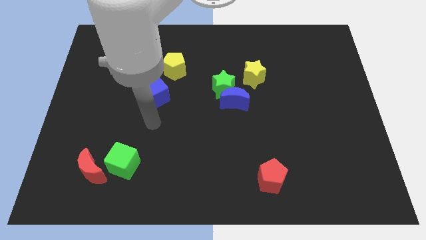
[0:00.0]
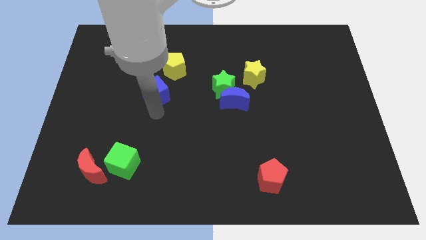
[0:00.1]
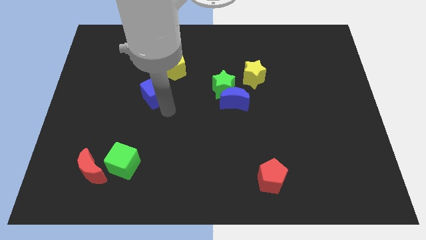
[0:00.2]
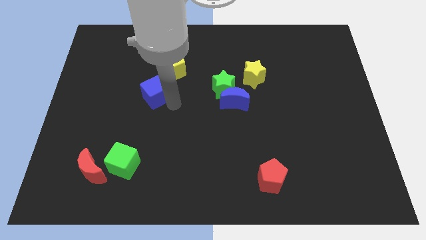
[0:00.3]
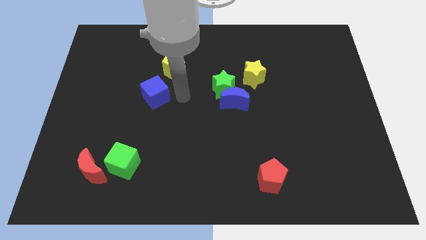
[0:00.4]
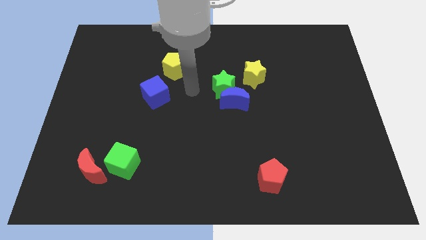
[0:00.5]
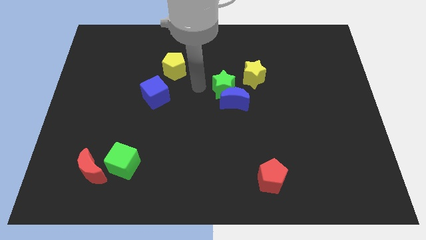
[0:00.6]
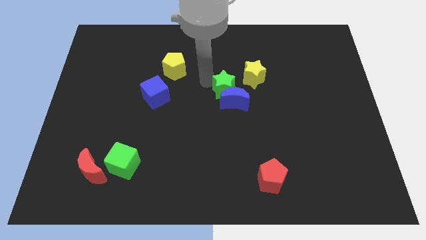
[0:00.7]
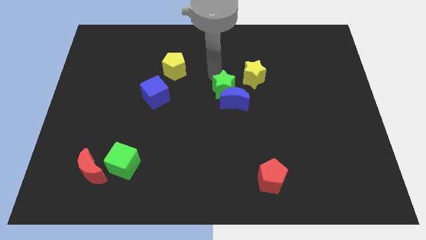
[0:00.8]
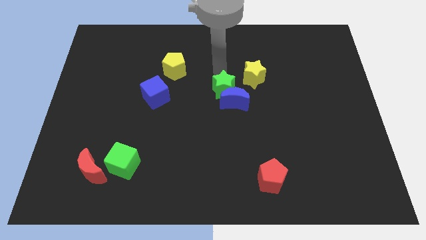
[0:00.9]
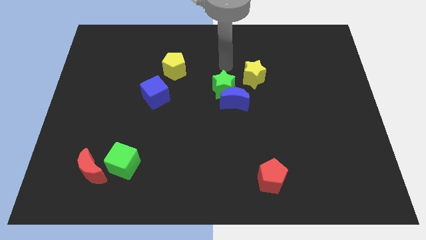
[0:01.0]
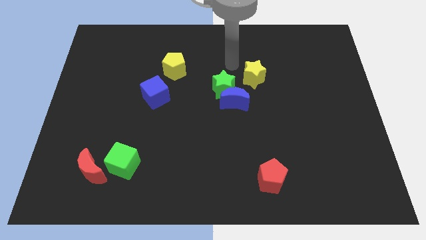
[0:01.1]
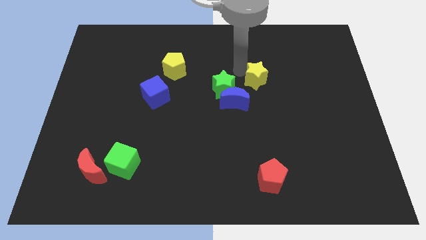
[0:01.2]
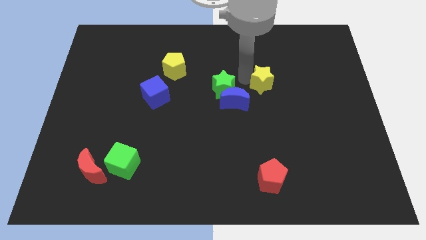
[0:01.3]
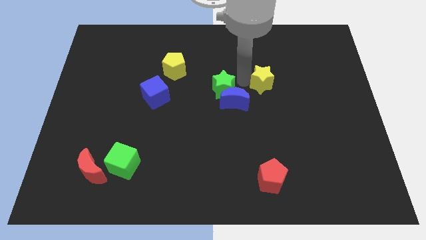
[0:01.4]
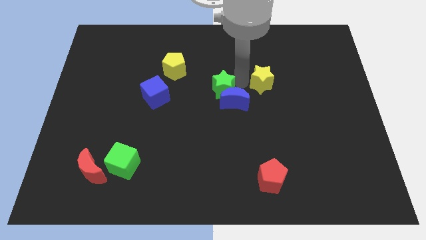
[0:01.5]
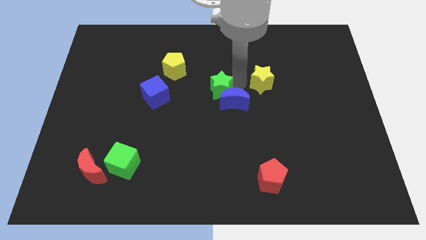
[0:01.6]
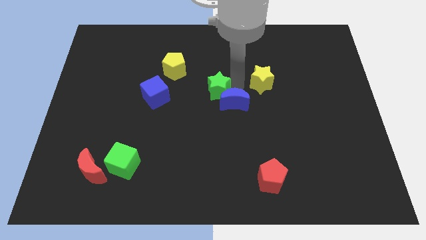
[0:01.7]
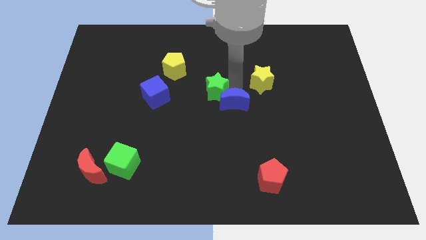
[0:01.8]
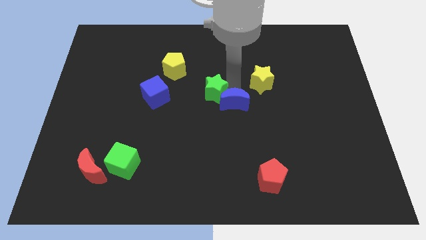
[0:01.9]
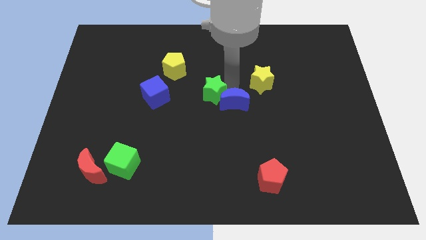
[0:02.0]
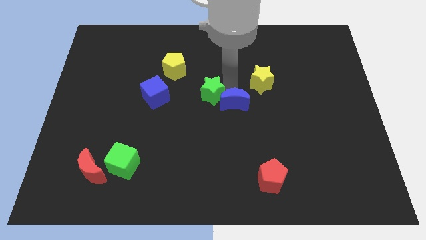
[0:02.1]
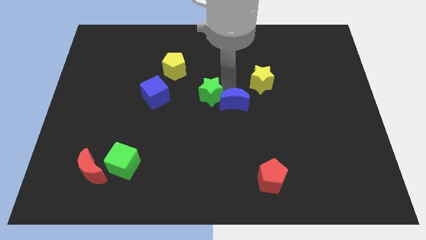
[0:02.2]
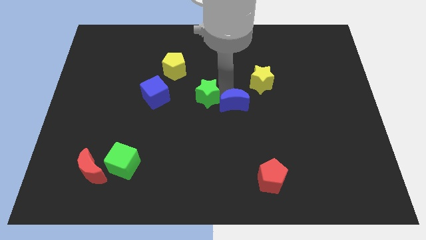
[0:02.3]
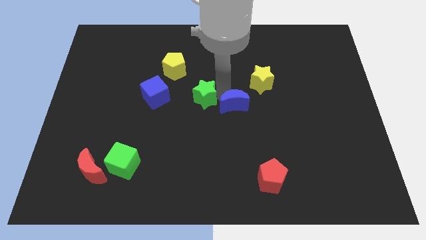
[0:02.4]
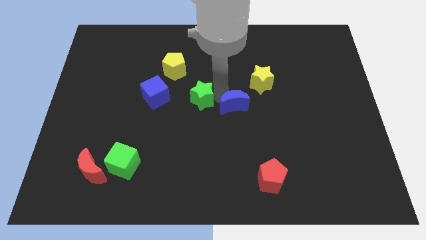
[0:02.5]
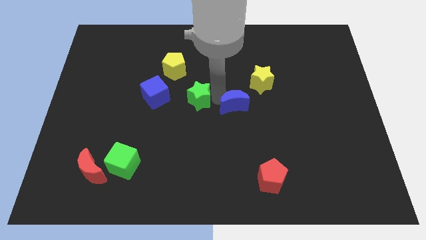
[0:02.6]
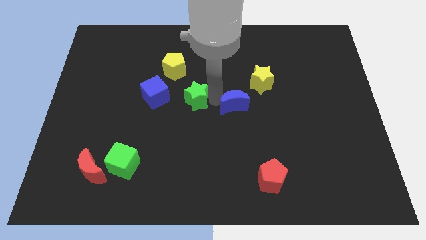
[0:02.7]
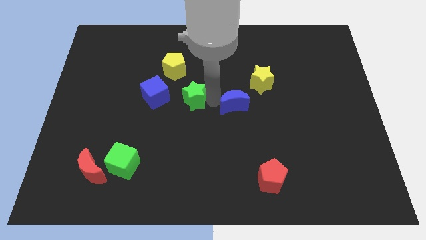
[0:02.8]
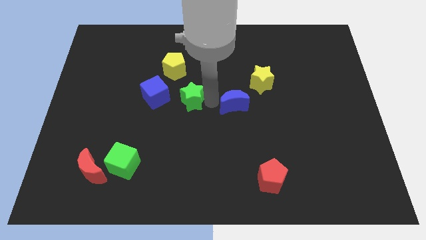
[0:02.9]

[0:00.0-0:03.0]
slide the green star left a bit

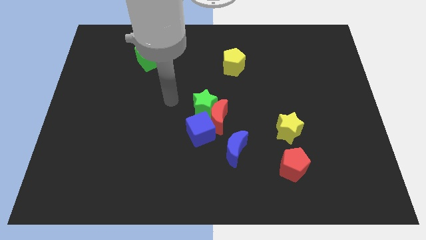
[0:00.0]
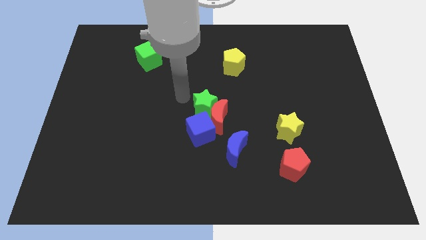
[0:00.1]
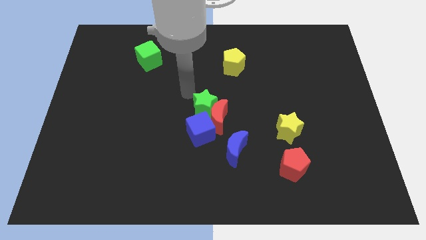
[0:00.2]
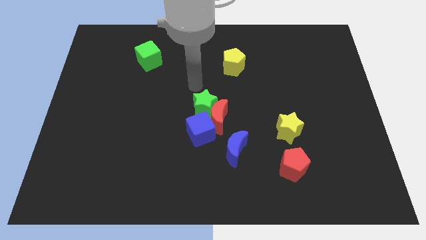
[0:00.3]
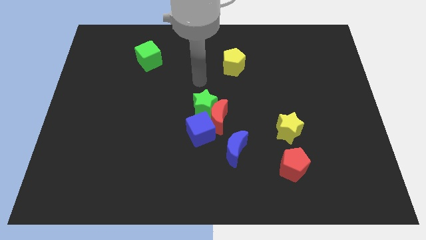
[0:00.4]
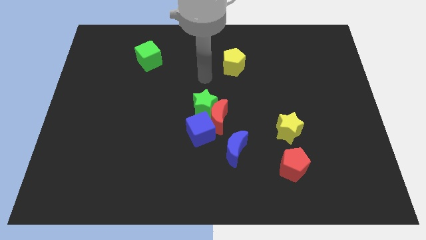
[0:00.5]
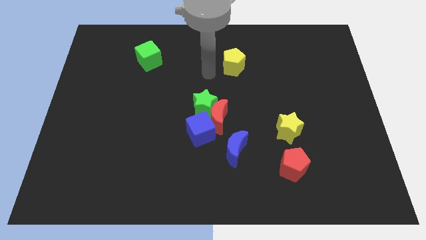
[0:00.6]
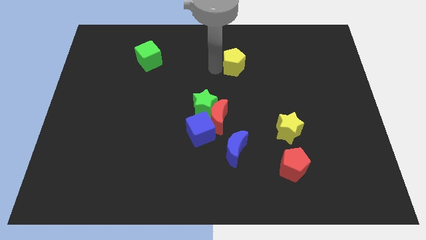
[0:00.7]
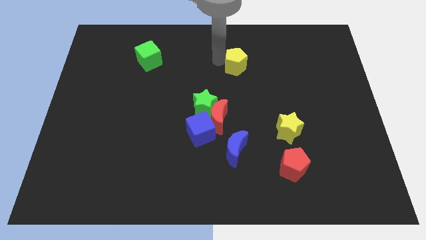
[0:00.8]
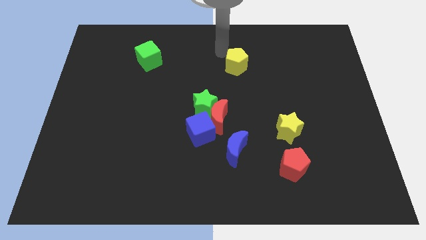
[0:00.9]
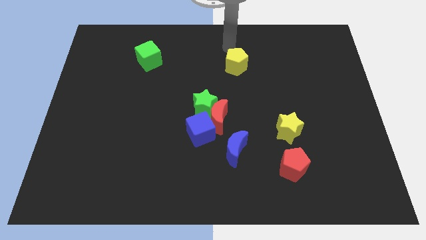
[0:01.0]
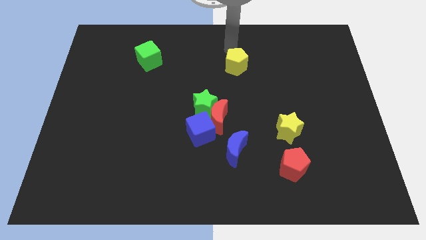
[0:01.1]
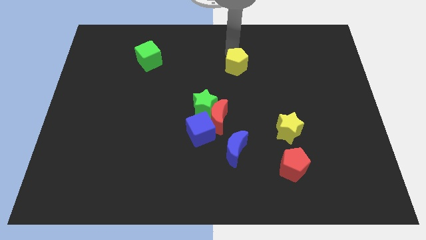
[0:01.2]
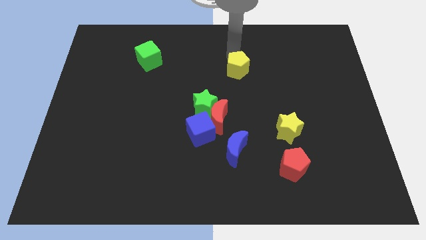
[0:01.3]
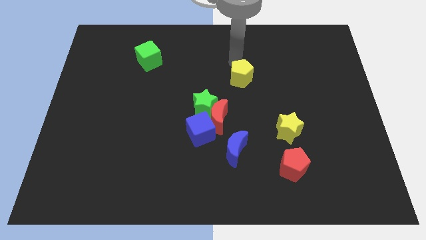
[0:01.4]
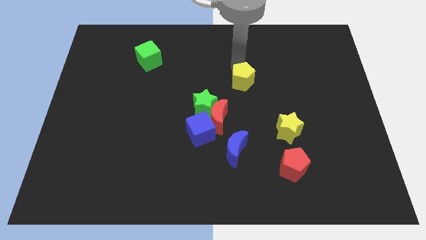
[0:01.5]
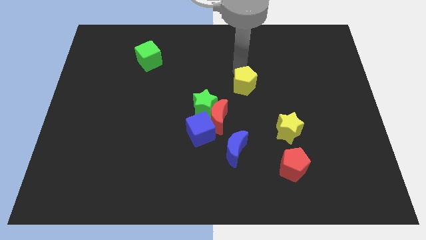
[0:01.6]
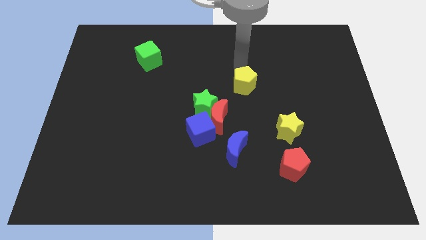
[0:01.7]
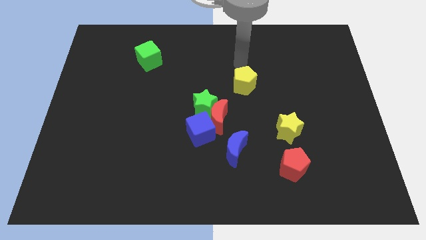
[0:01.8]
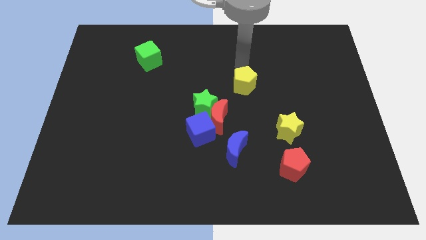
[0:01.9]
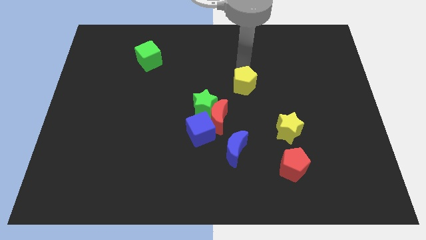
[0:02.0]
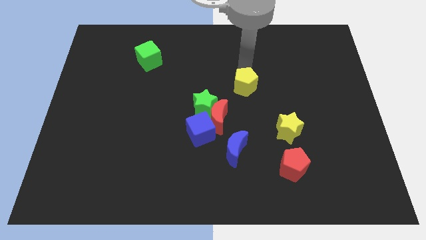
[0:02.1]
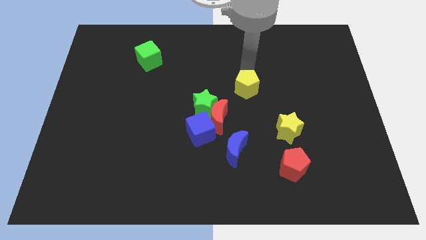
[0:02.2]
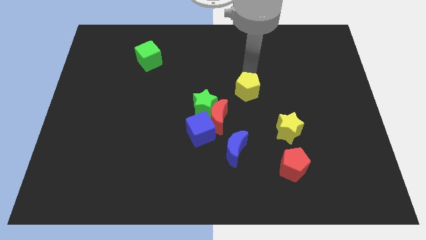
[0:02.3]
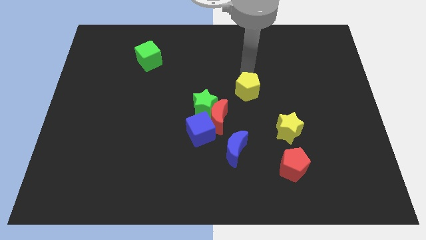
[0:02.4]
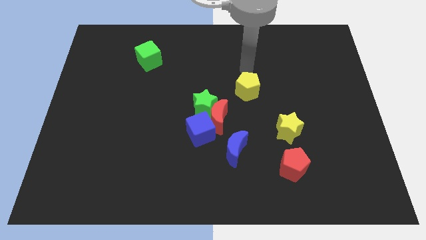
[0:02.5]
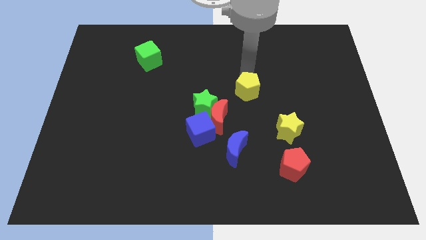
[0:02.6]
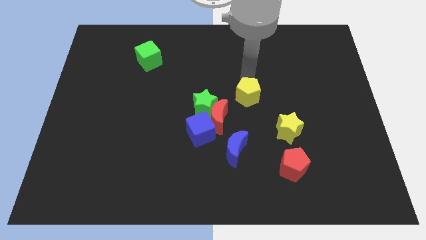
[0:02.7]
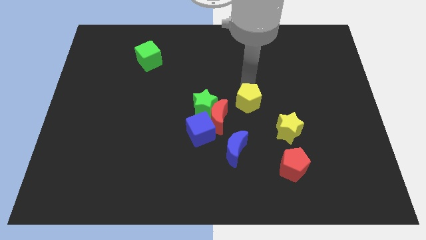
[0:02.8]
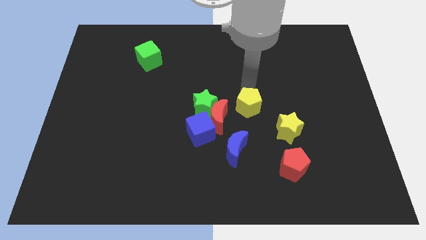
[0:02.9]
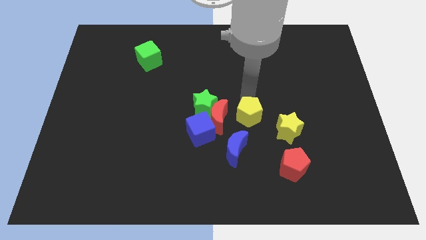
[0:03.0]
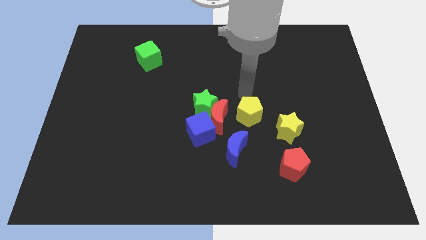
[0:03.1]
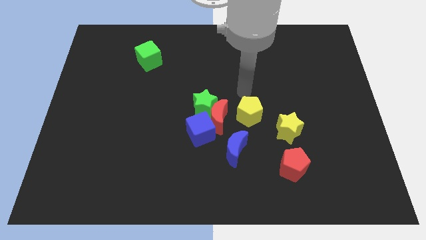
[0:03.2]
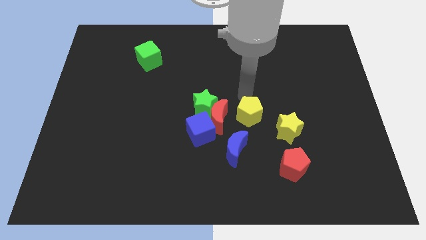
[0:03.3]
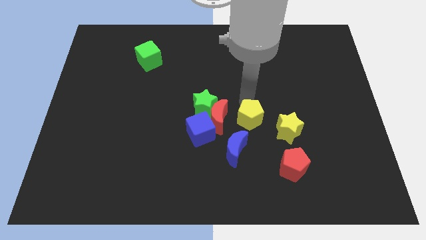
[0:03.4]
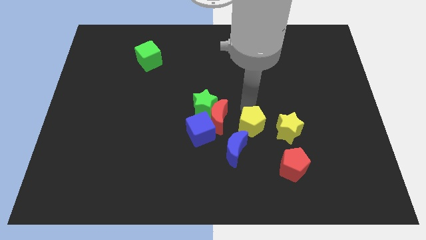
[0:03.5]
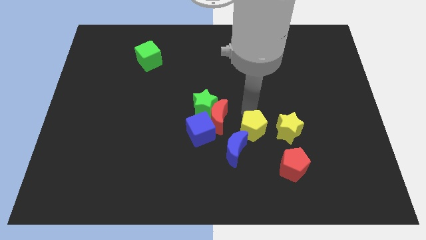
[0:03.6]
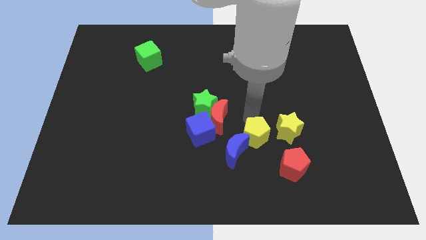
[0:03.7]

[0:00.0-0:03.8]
slide the yellow pentagon down

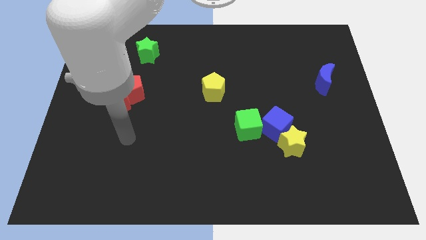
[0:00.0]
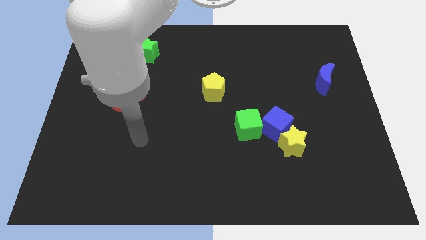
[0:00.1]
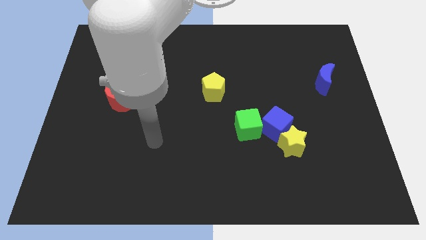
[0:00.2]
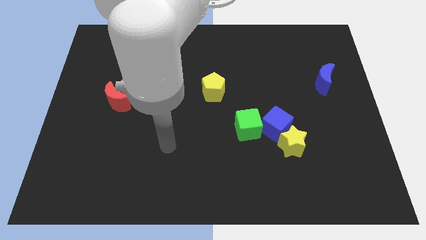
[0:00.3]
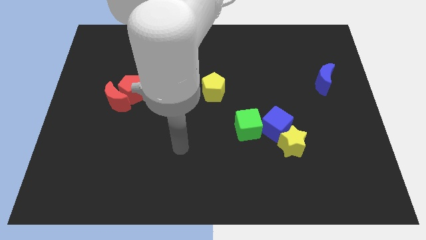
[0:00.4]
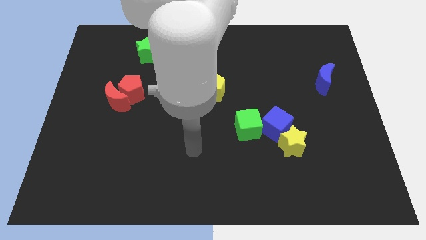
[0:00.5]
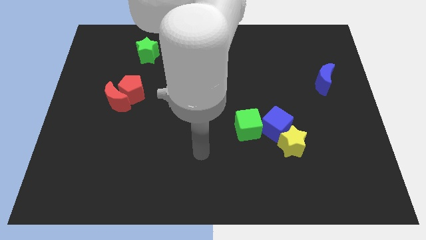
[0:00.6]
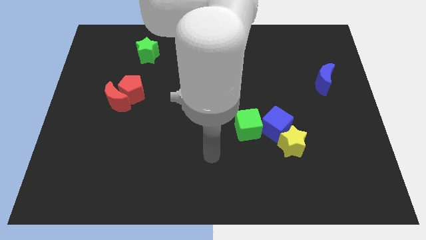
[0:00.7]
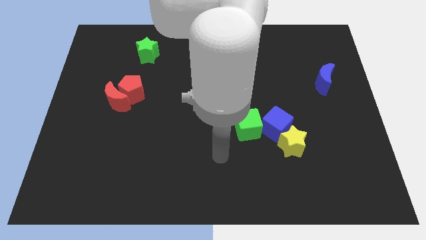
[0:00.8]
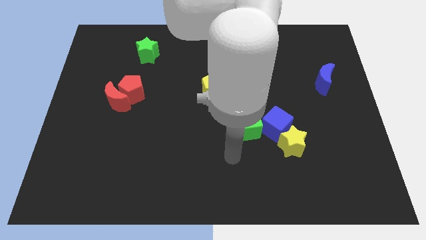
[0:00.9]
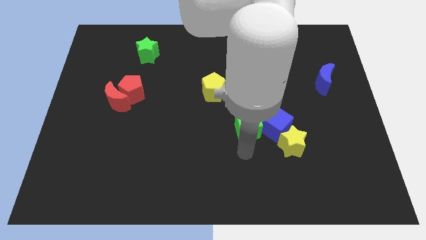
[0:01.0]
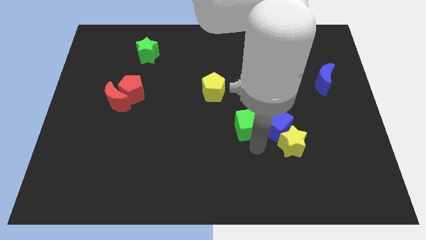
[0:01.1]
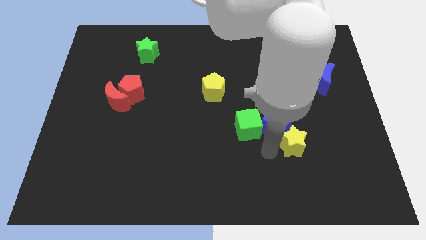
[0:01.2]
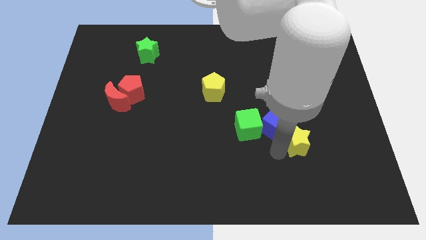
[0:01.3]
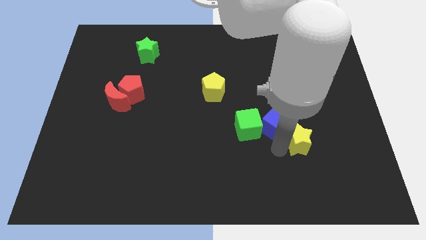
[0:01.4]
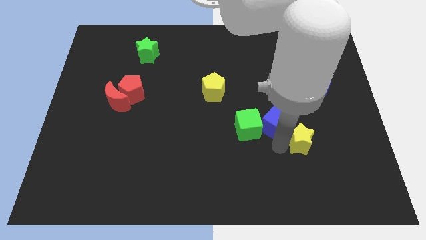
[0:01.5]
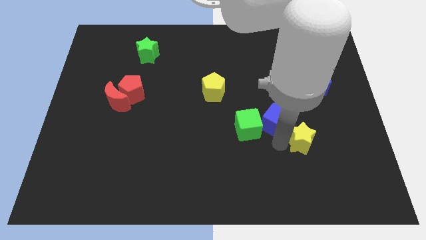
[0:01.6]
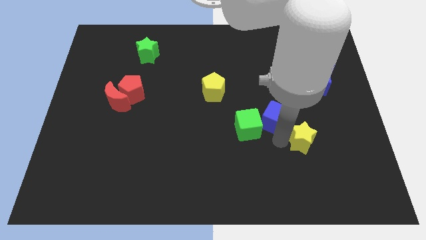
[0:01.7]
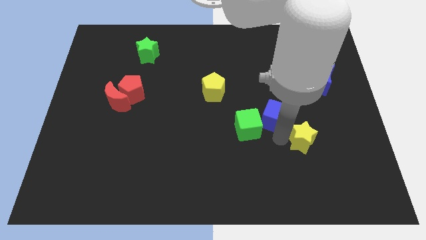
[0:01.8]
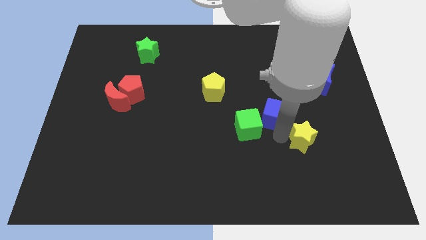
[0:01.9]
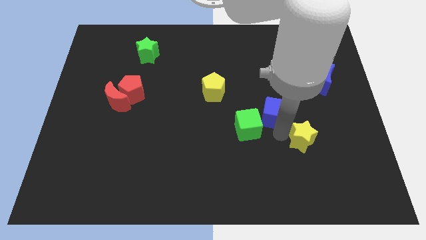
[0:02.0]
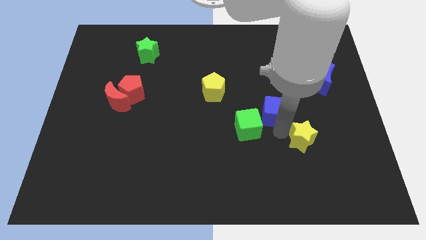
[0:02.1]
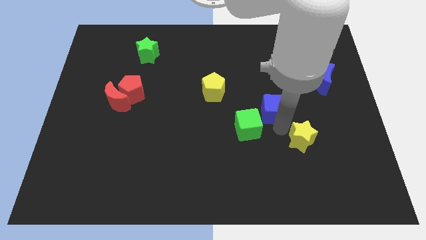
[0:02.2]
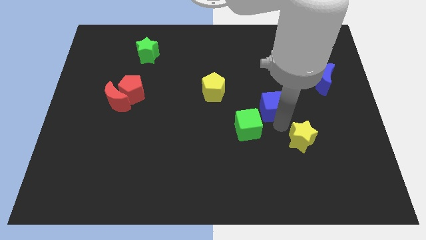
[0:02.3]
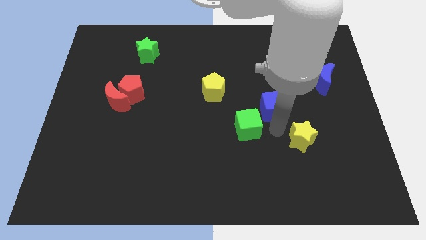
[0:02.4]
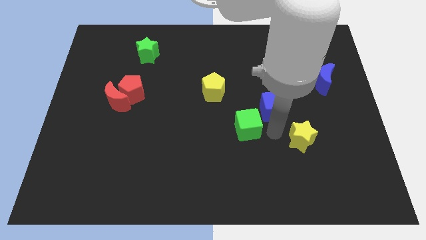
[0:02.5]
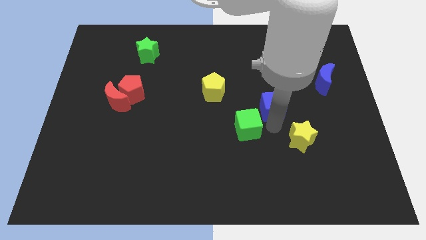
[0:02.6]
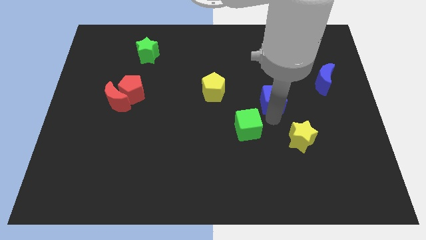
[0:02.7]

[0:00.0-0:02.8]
move the blue cube up somewhat
